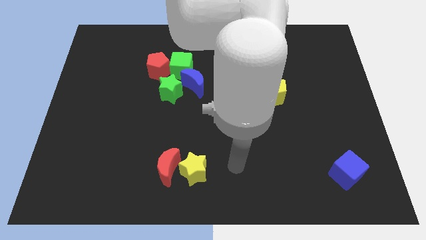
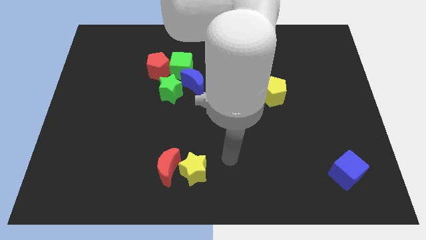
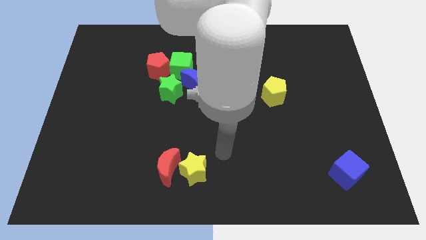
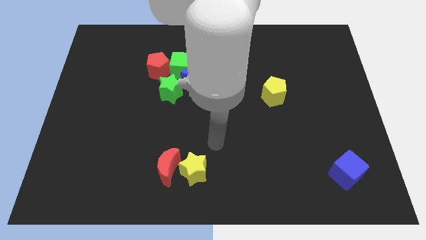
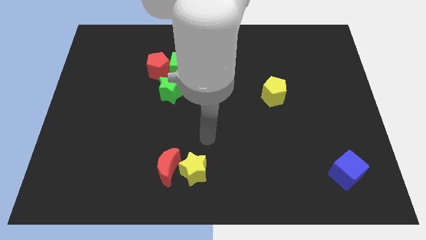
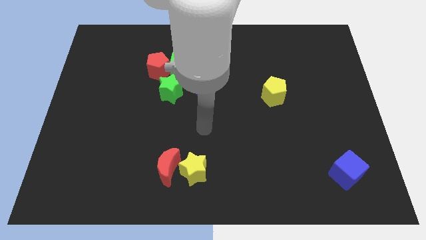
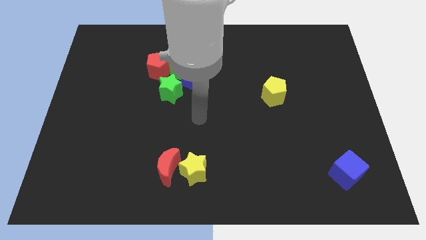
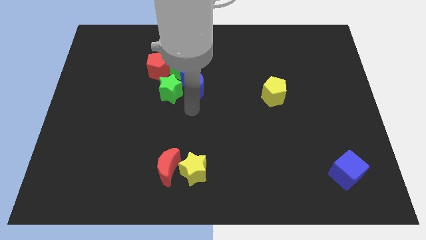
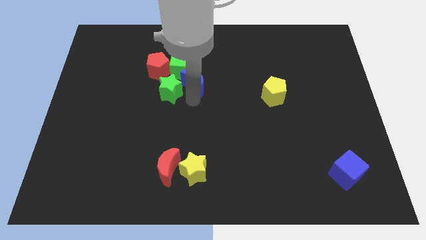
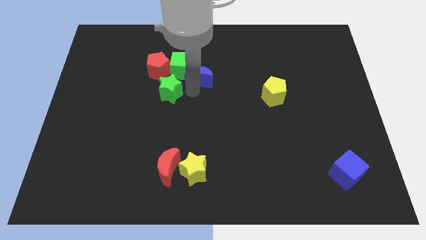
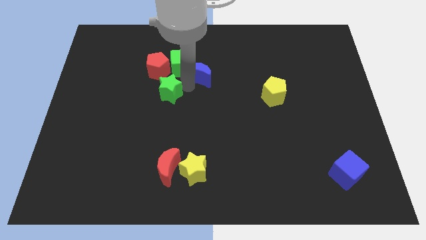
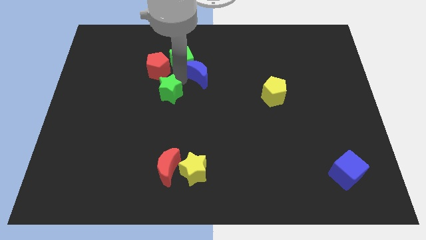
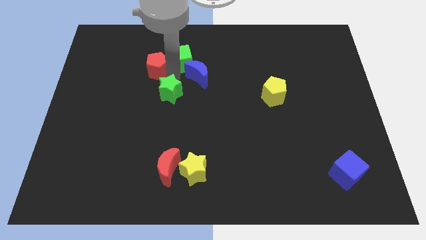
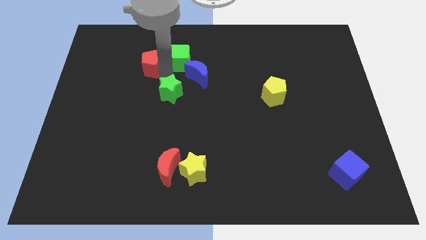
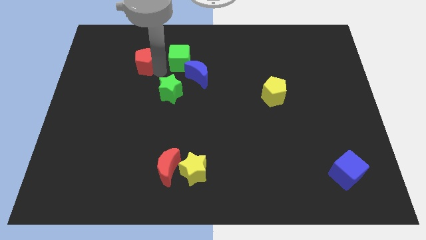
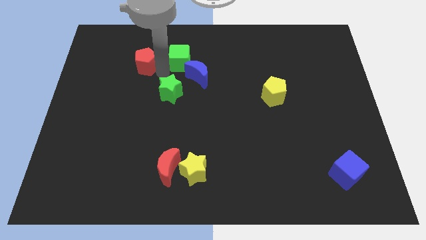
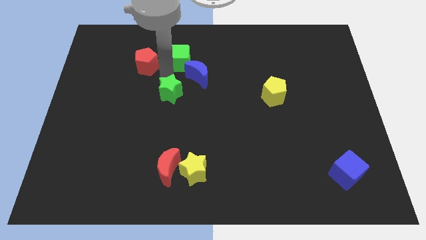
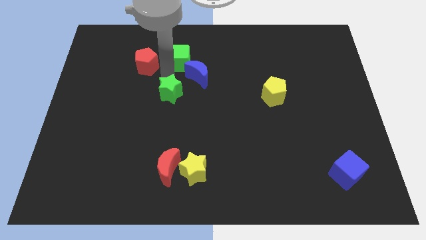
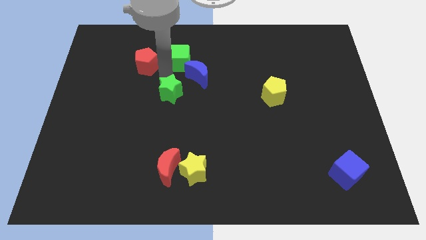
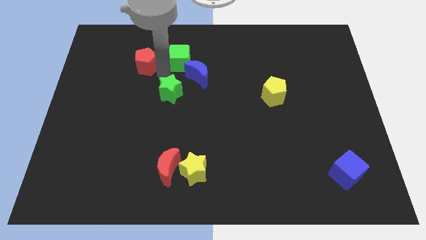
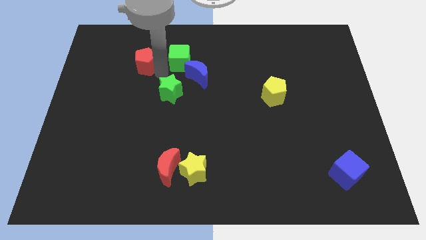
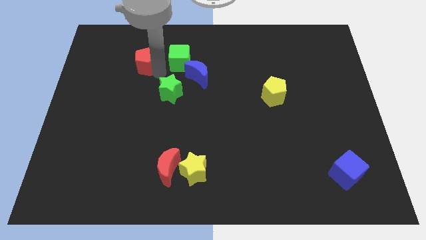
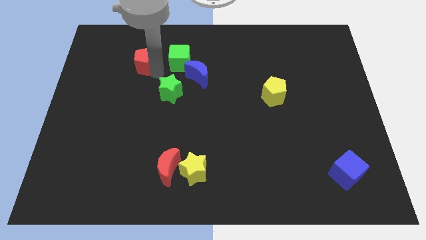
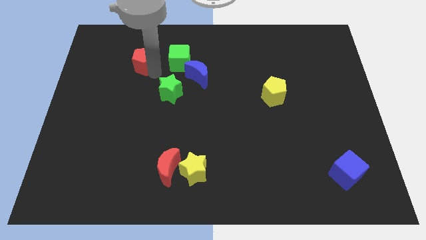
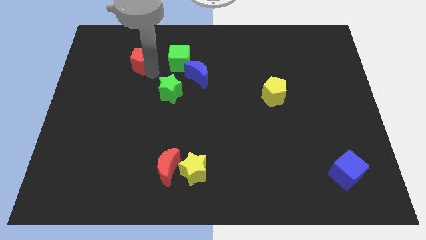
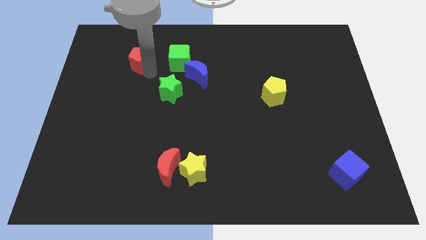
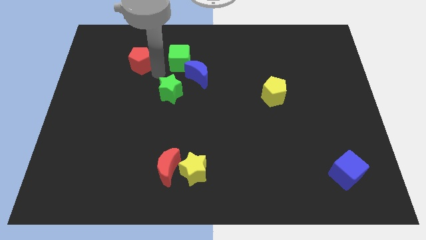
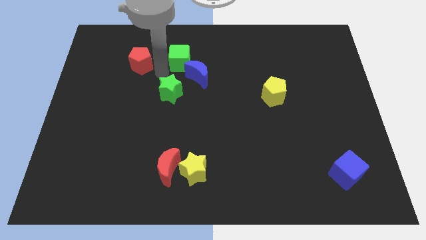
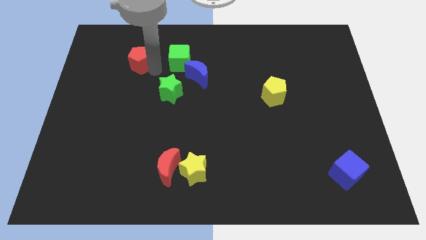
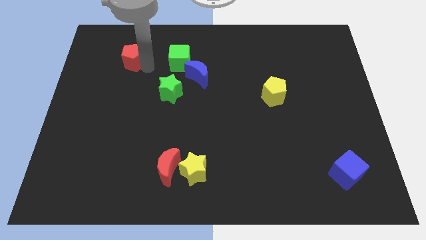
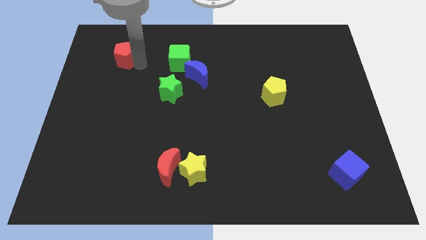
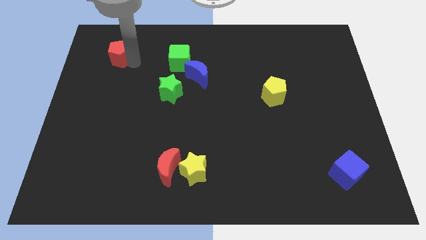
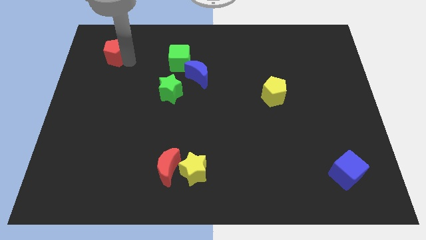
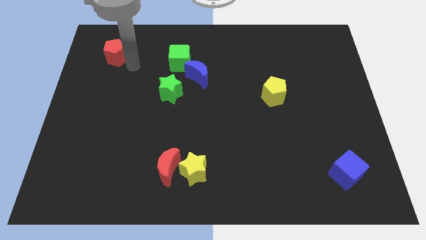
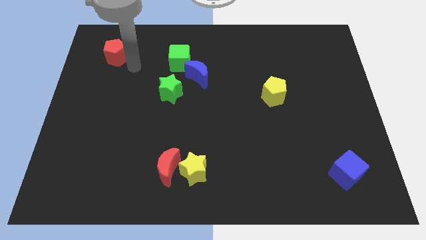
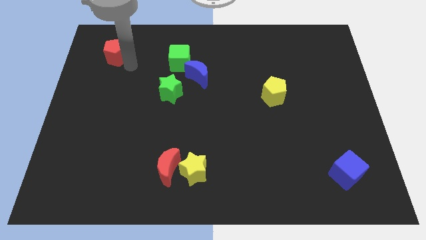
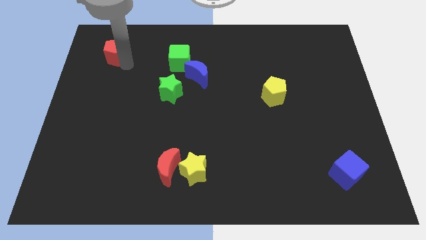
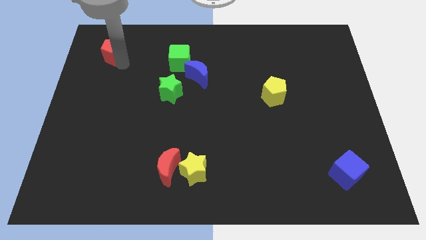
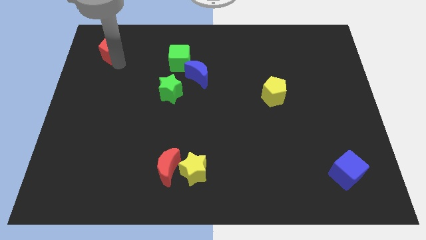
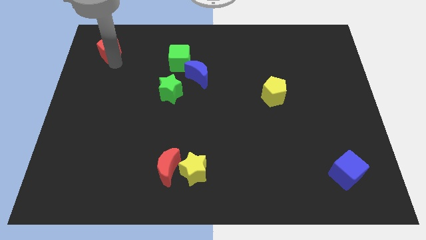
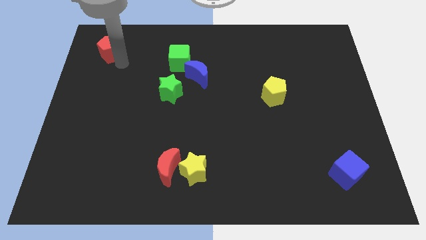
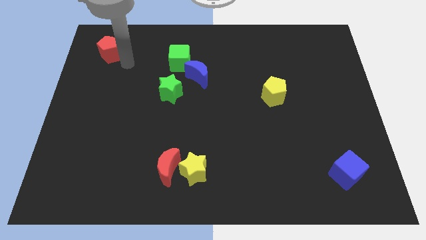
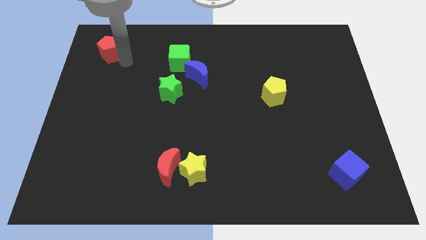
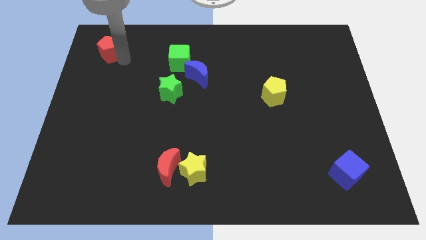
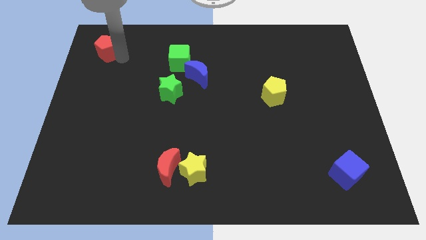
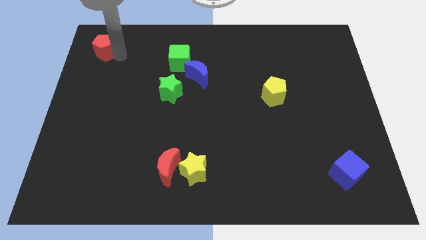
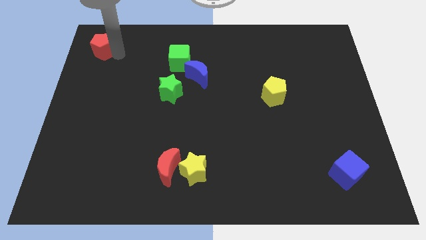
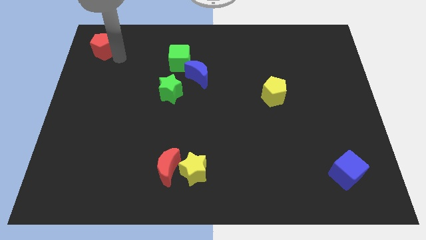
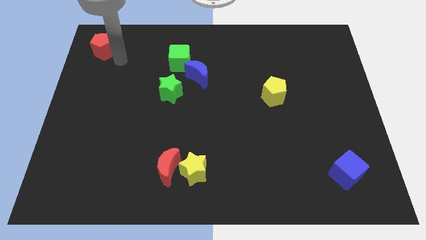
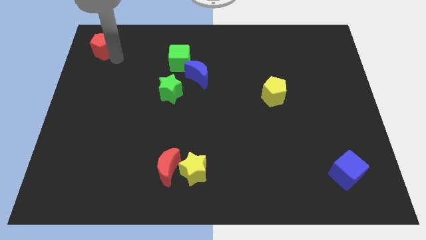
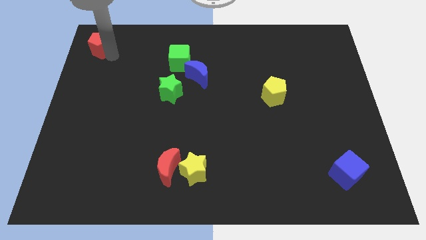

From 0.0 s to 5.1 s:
slide the red pentagon to the top left of the board

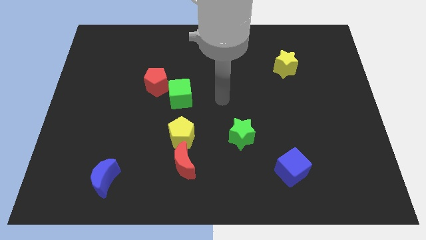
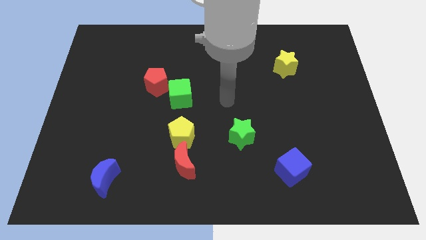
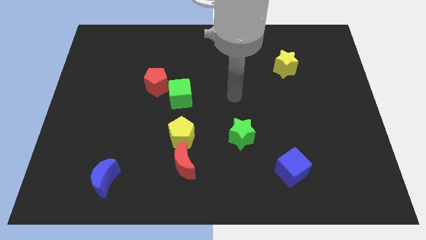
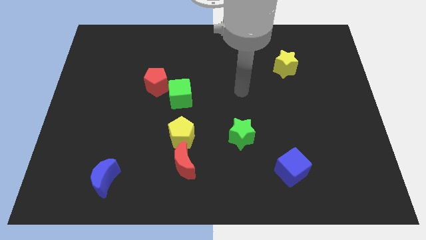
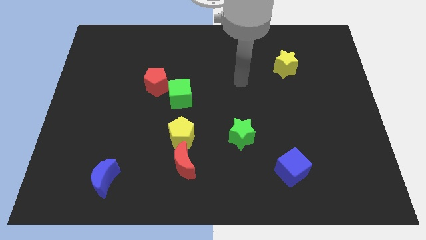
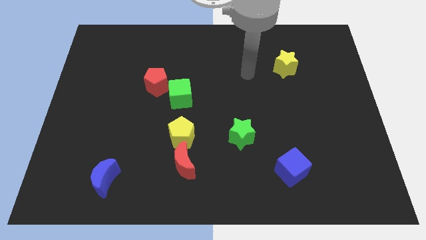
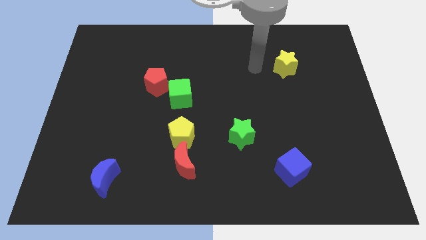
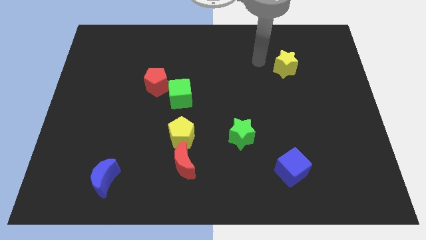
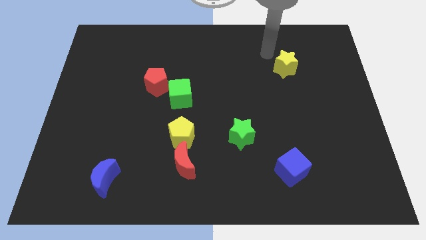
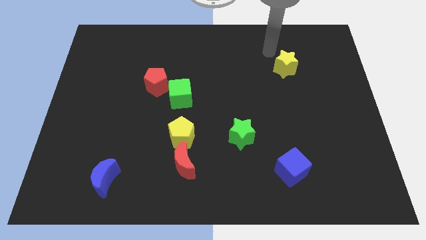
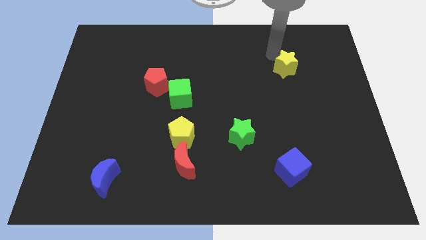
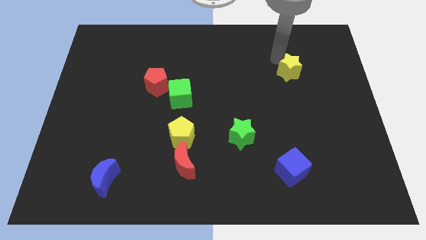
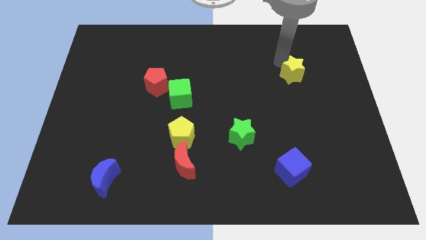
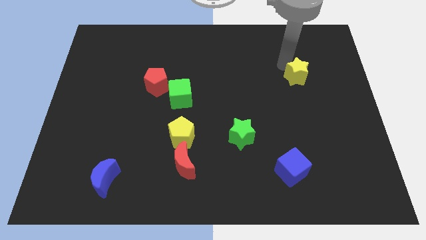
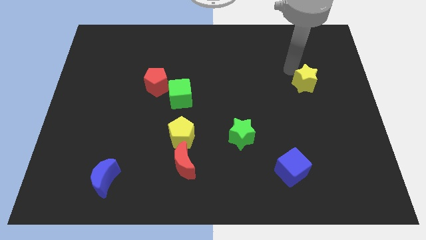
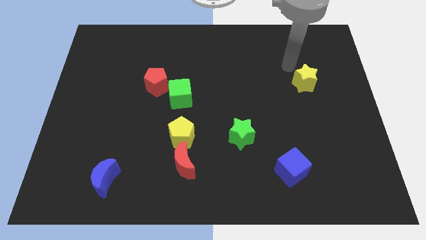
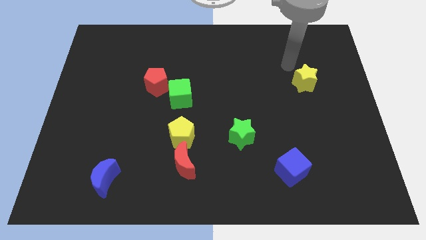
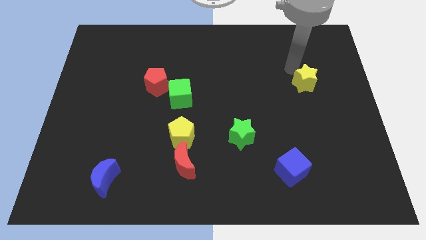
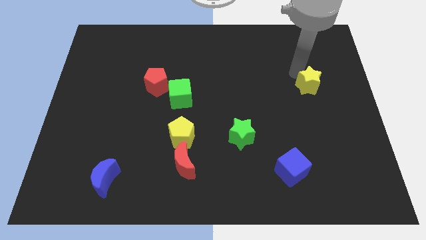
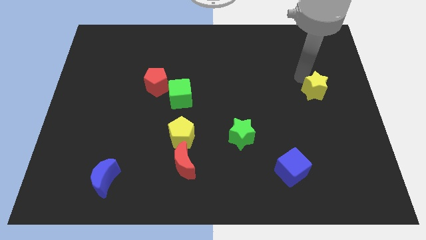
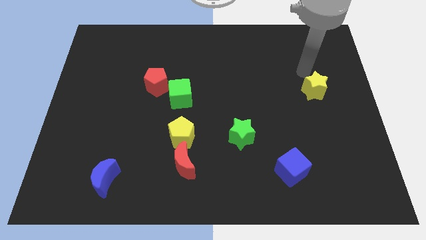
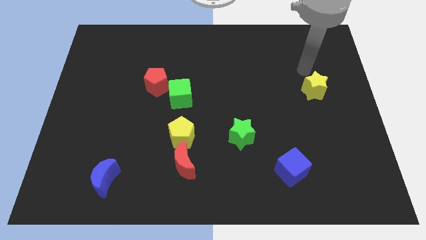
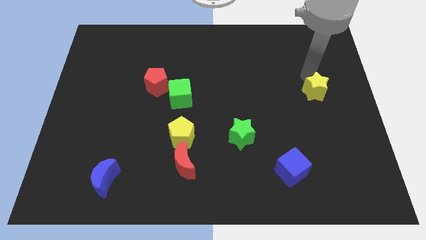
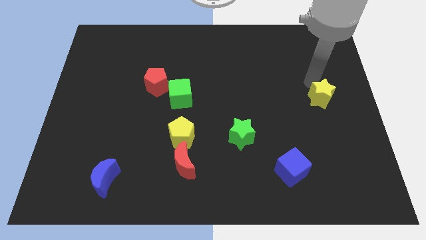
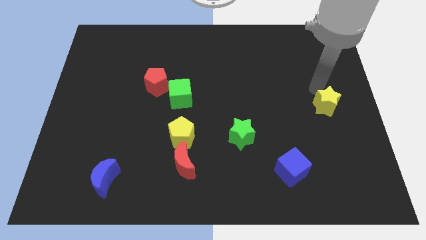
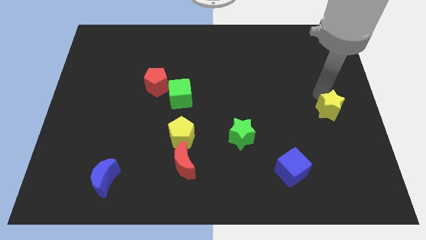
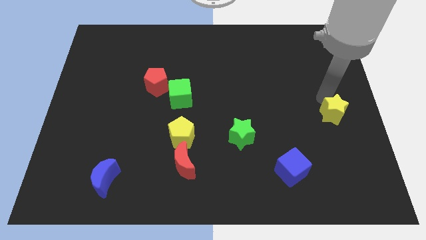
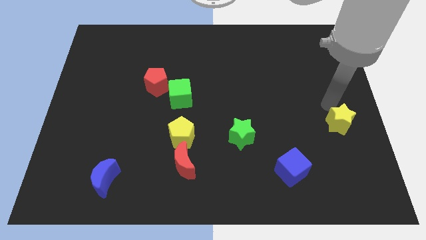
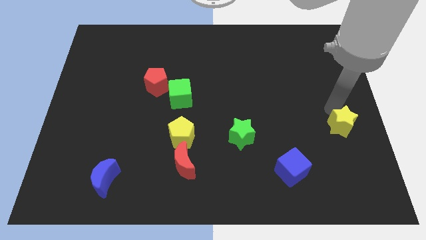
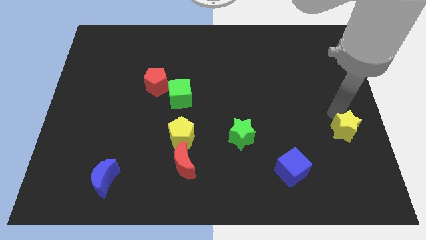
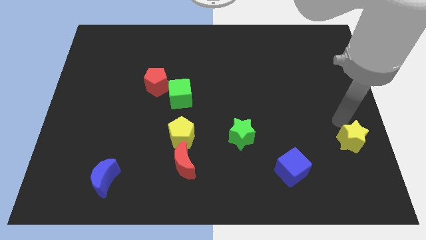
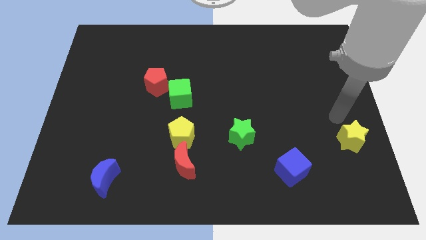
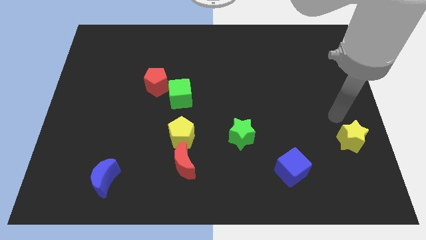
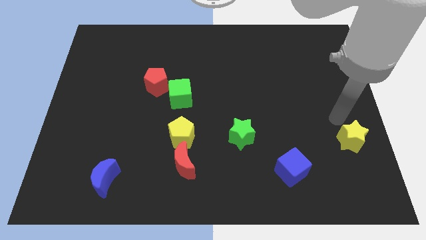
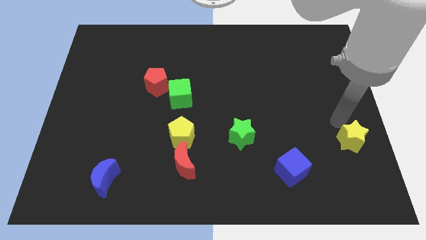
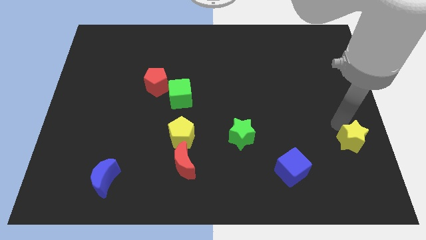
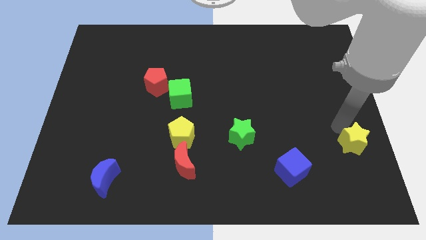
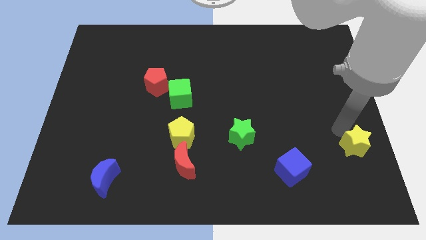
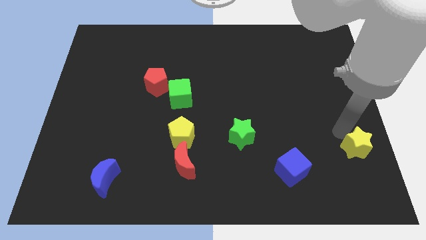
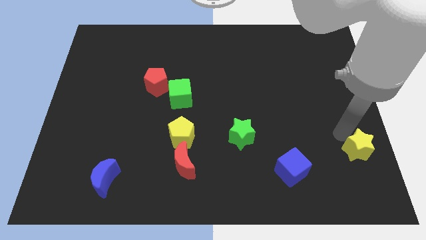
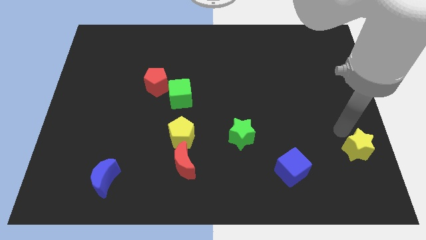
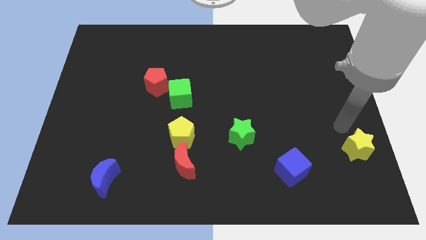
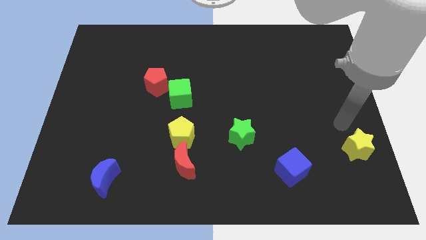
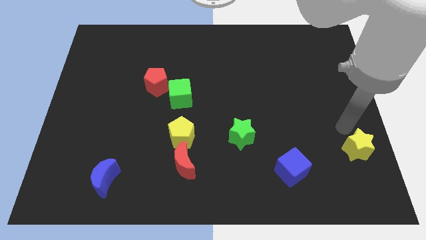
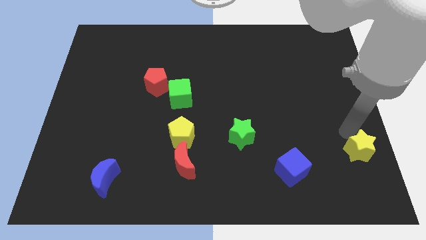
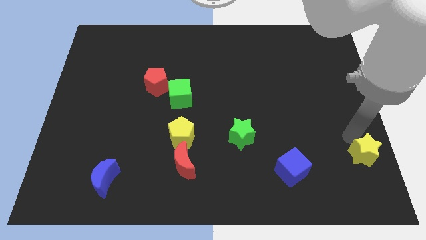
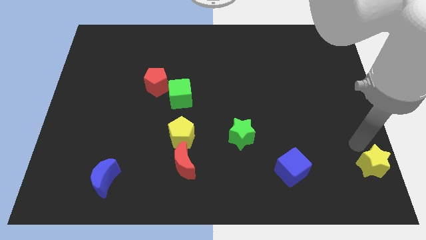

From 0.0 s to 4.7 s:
put the yellow star to the bottom right
